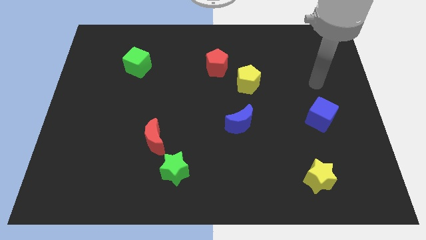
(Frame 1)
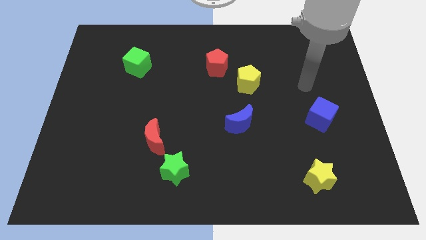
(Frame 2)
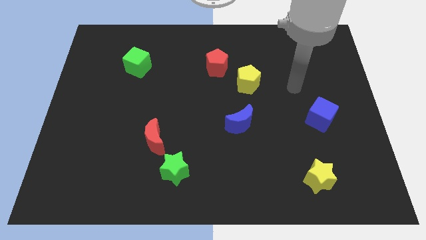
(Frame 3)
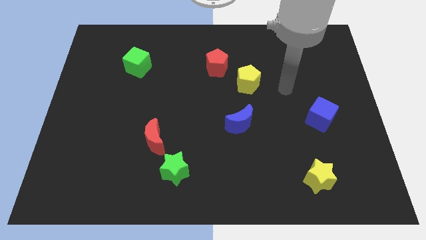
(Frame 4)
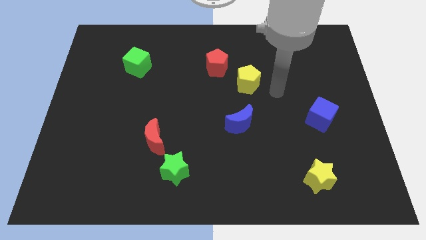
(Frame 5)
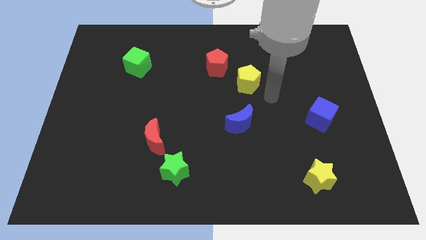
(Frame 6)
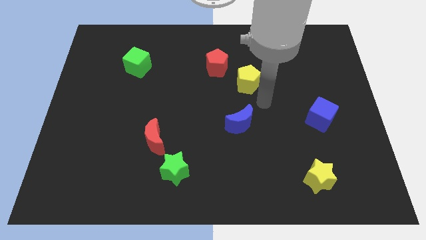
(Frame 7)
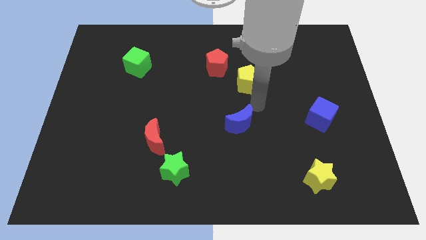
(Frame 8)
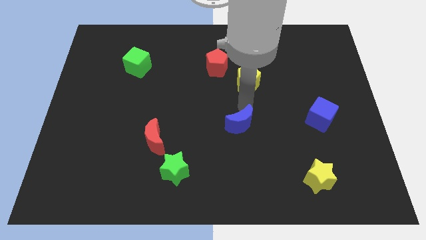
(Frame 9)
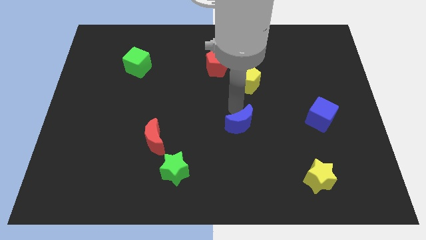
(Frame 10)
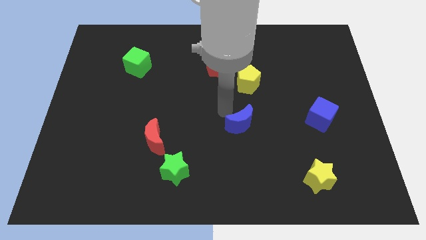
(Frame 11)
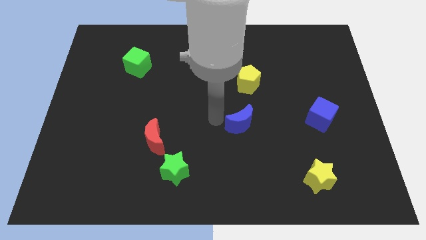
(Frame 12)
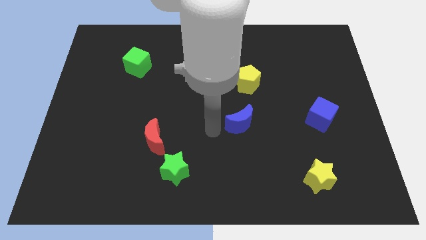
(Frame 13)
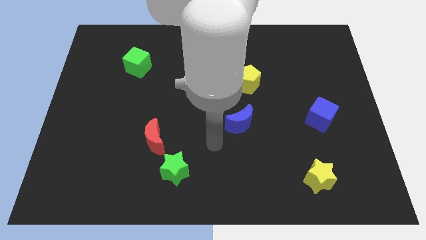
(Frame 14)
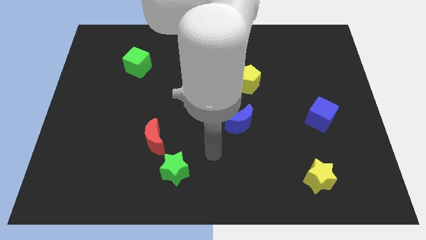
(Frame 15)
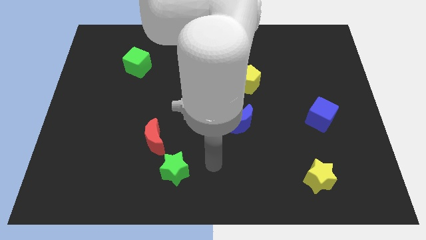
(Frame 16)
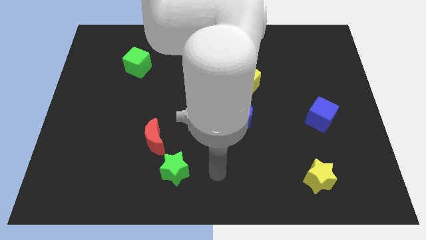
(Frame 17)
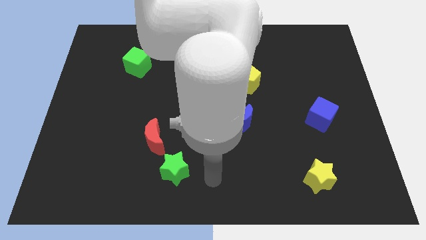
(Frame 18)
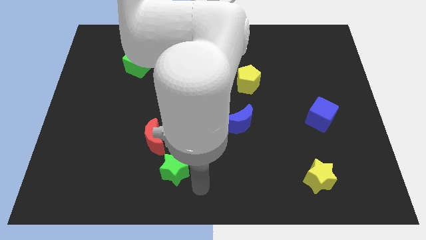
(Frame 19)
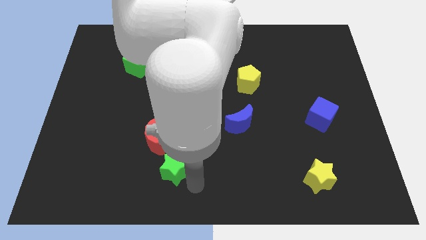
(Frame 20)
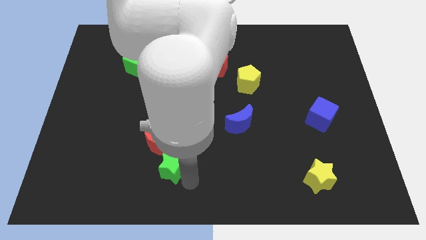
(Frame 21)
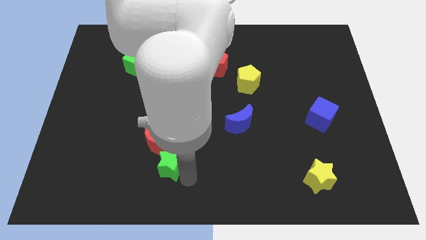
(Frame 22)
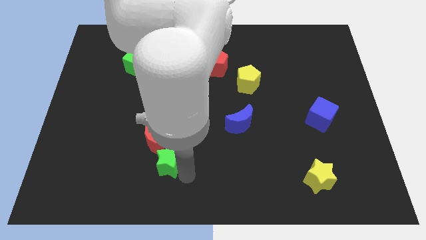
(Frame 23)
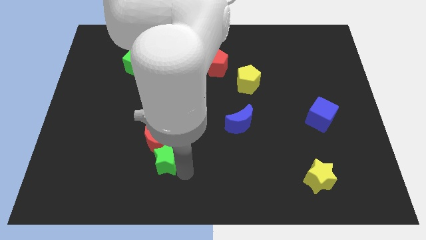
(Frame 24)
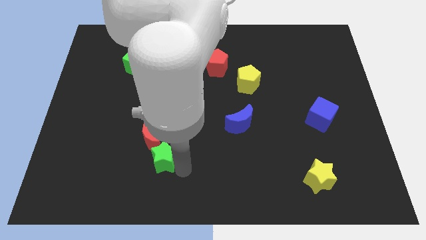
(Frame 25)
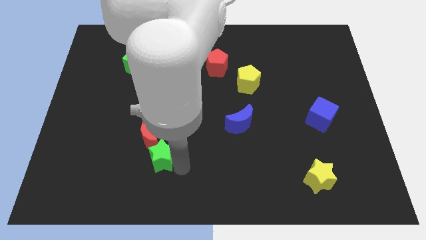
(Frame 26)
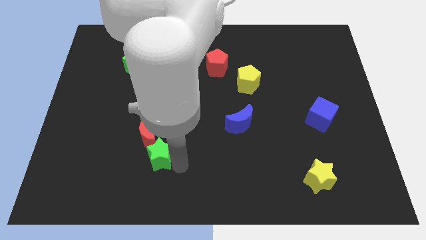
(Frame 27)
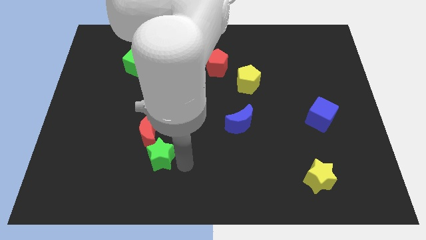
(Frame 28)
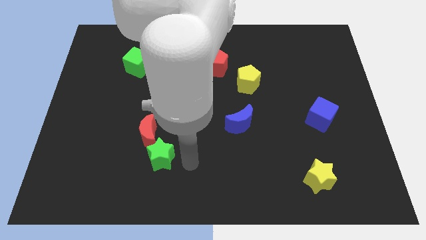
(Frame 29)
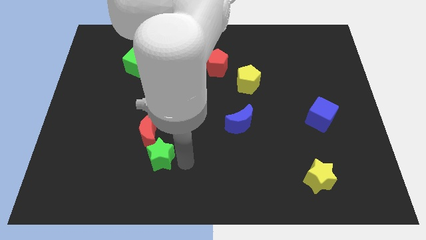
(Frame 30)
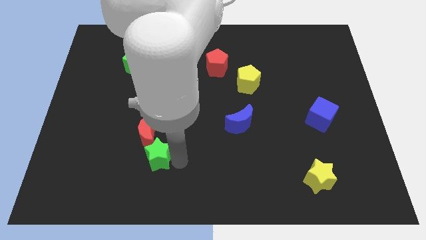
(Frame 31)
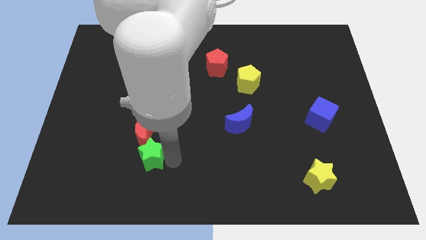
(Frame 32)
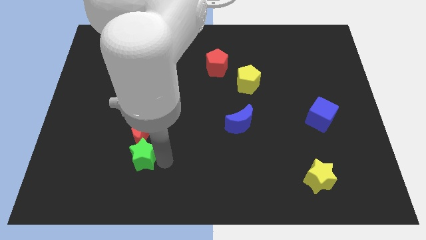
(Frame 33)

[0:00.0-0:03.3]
move the green star a bit upwards and left
